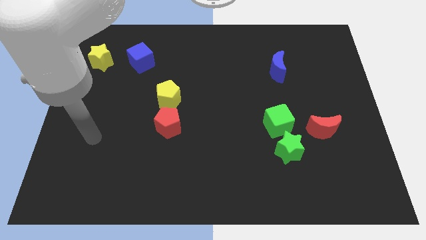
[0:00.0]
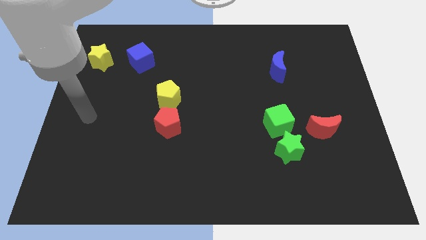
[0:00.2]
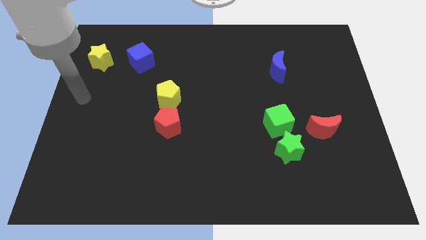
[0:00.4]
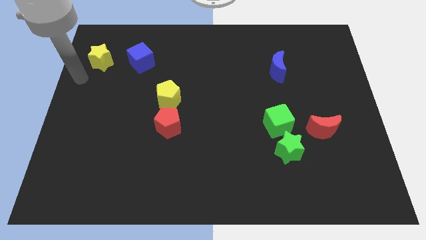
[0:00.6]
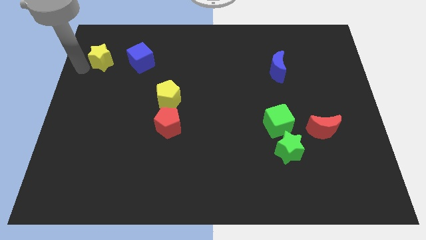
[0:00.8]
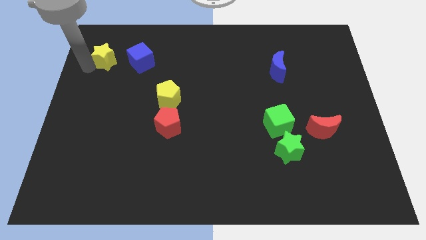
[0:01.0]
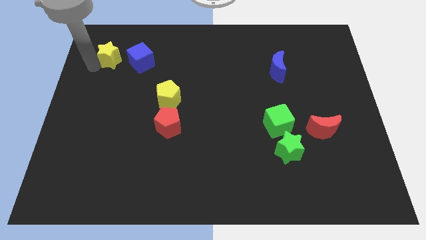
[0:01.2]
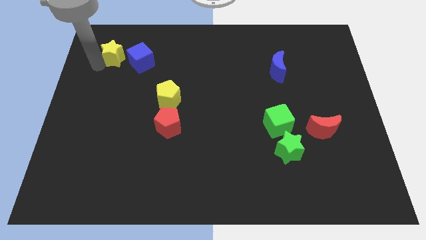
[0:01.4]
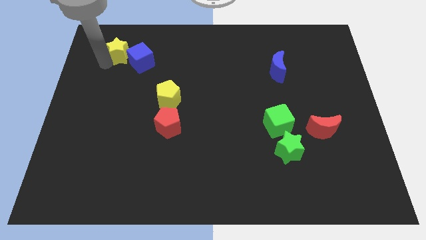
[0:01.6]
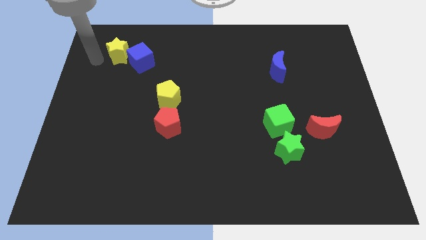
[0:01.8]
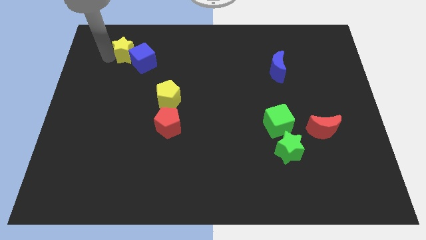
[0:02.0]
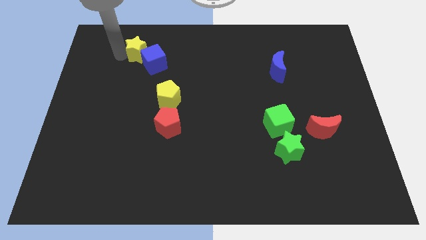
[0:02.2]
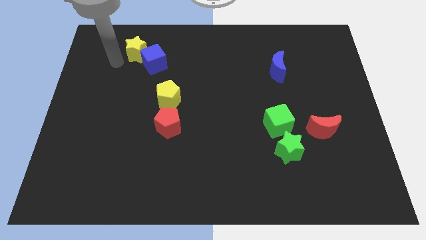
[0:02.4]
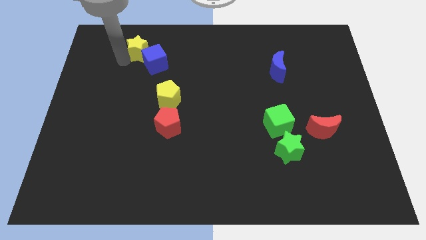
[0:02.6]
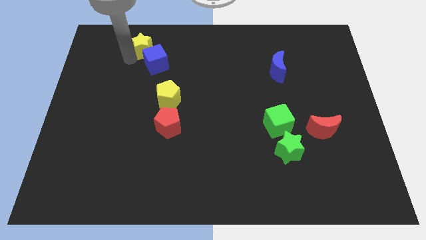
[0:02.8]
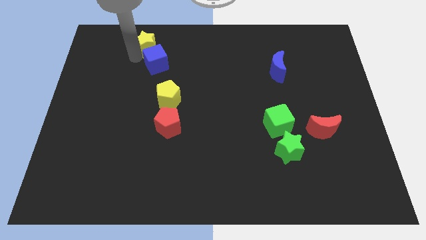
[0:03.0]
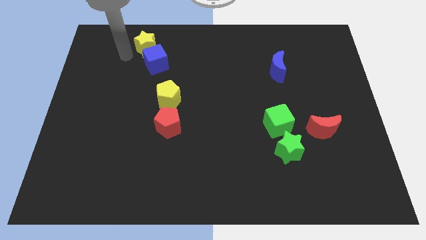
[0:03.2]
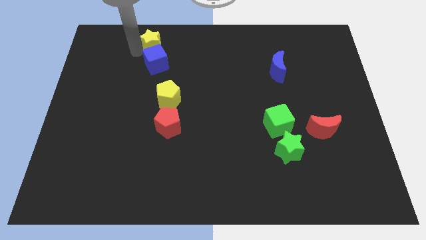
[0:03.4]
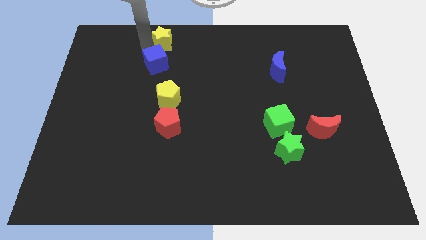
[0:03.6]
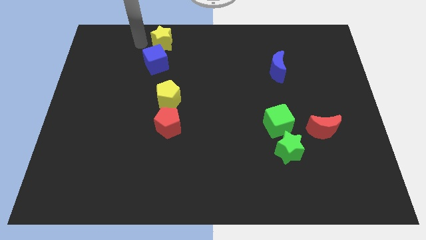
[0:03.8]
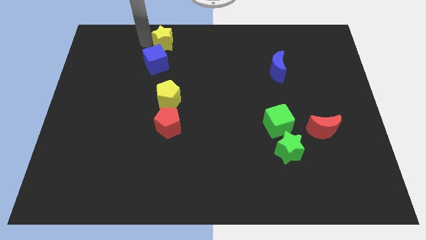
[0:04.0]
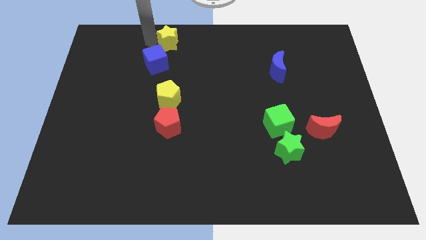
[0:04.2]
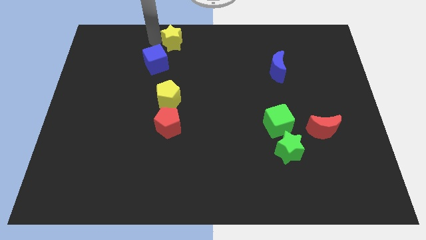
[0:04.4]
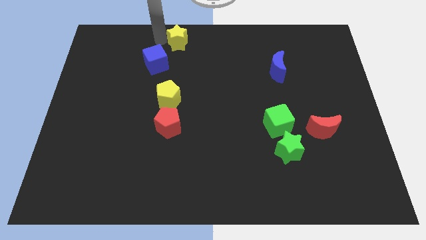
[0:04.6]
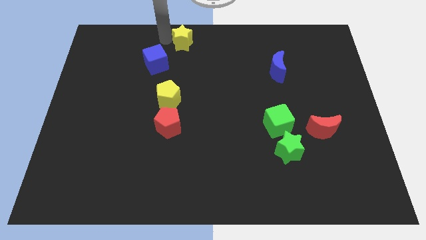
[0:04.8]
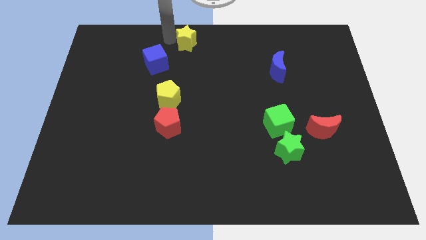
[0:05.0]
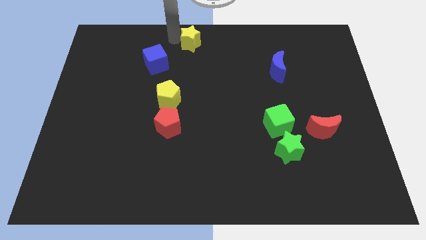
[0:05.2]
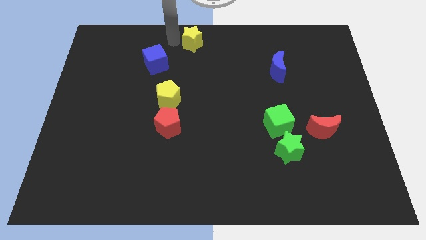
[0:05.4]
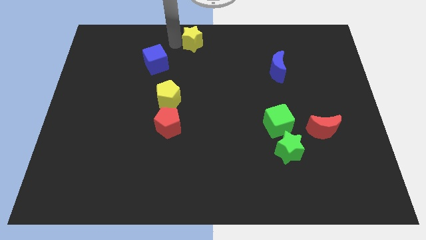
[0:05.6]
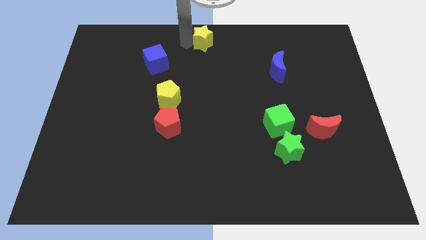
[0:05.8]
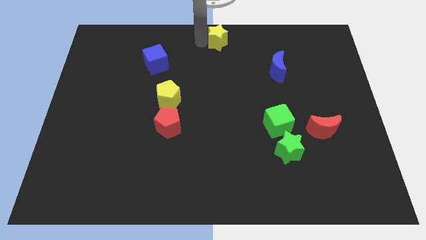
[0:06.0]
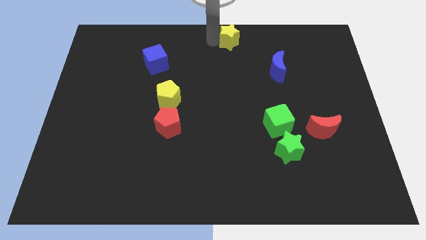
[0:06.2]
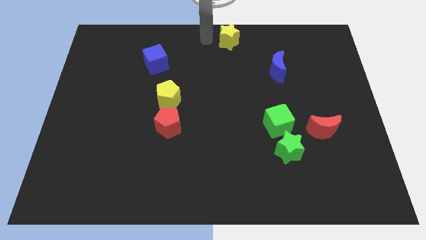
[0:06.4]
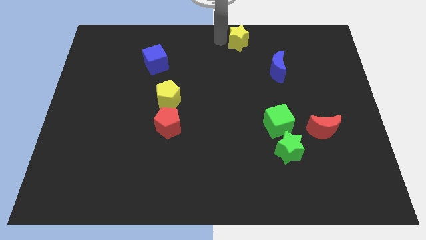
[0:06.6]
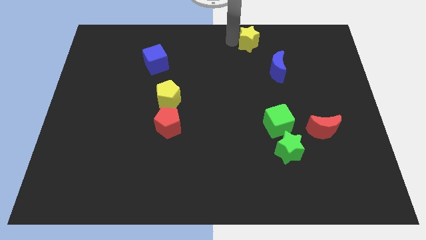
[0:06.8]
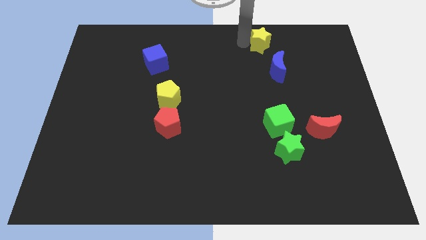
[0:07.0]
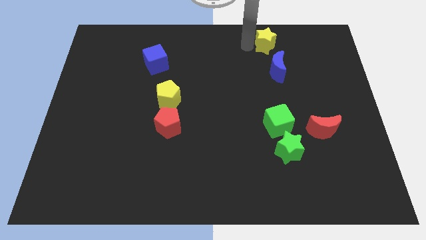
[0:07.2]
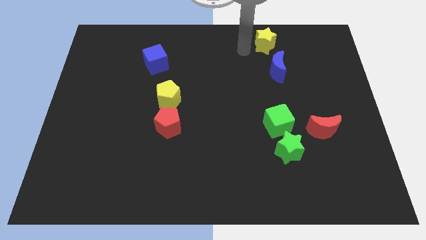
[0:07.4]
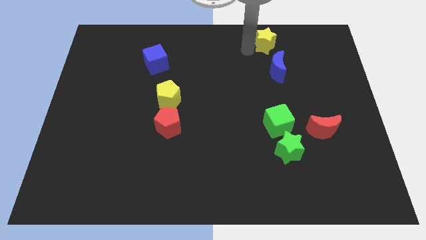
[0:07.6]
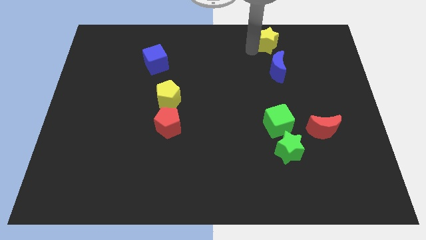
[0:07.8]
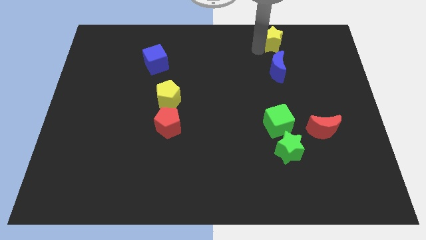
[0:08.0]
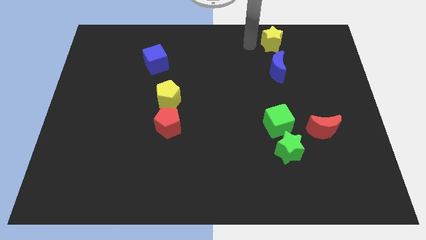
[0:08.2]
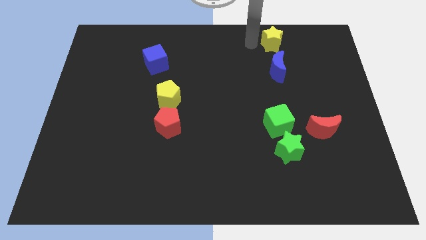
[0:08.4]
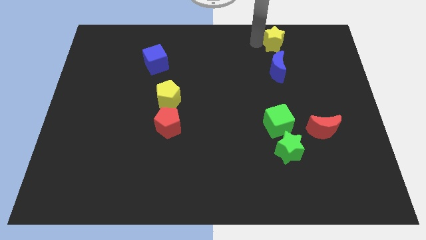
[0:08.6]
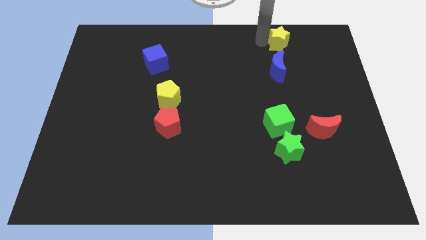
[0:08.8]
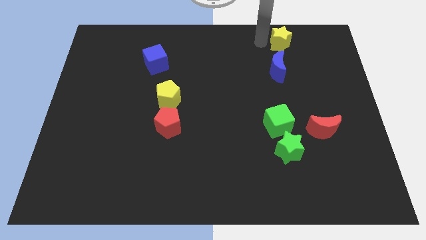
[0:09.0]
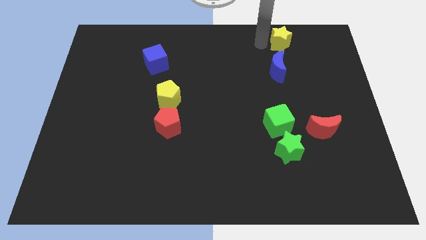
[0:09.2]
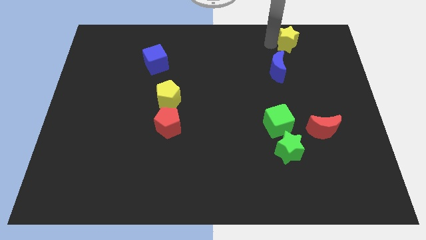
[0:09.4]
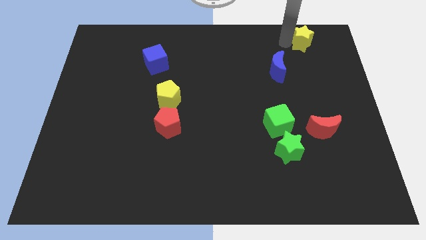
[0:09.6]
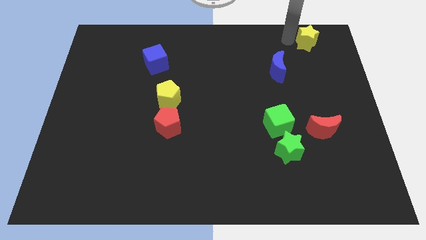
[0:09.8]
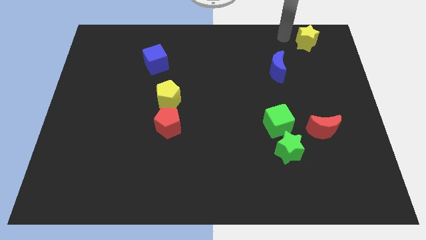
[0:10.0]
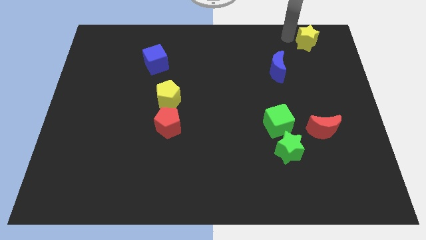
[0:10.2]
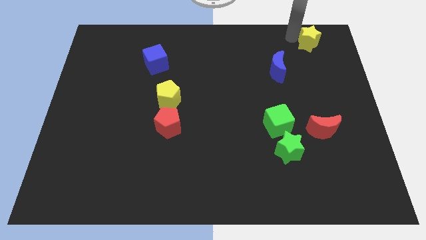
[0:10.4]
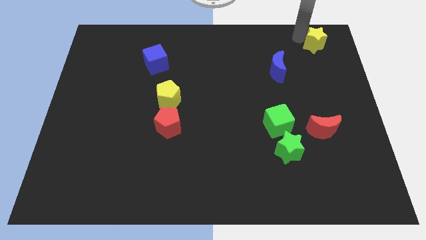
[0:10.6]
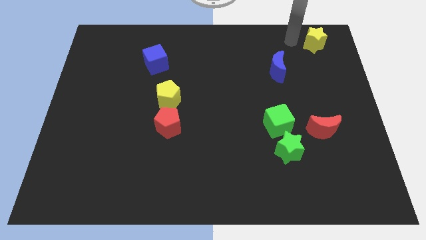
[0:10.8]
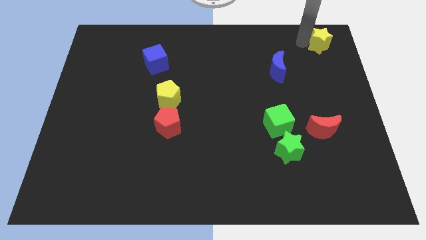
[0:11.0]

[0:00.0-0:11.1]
push the yellow star to the upper right corner

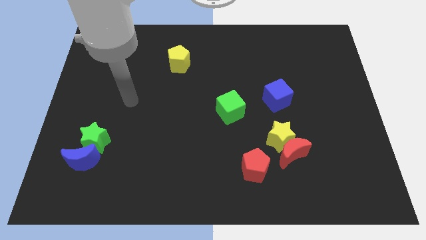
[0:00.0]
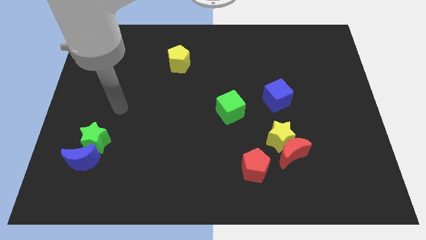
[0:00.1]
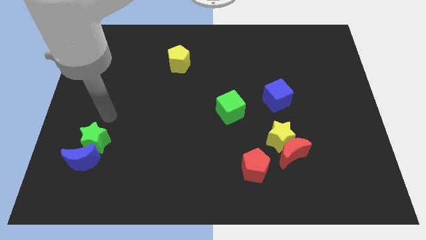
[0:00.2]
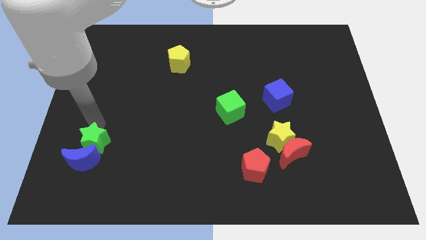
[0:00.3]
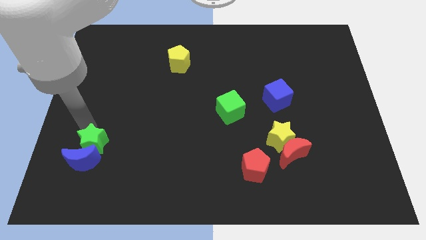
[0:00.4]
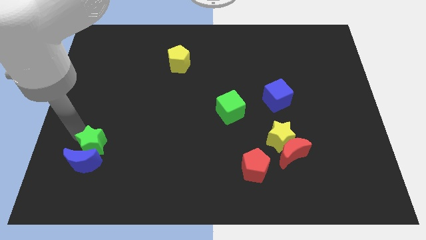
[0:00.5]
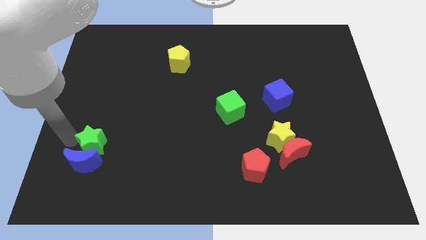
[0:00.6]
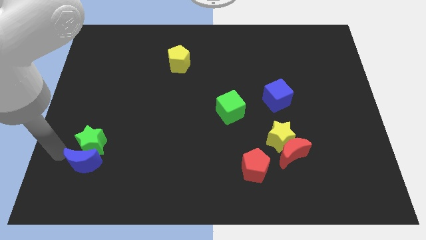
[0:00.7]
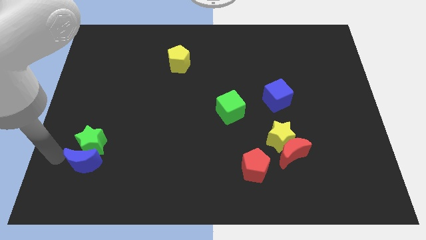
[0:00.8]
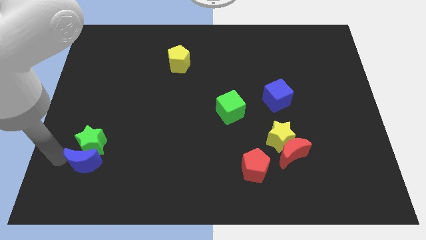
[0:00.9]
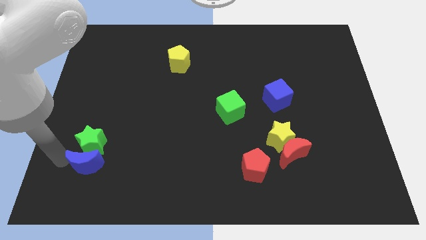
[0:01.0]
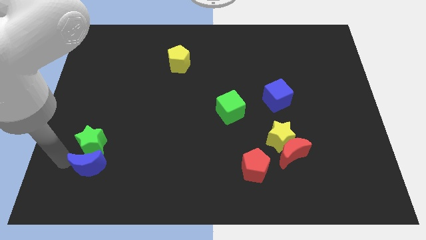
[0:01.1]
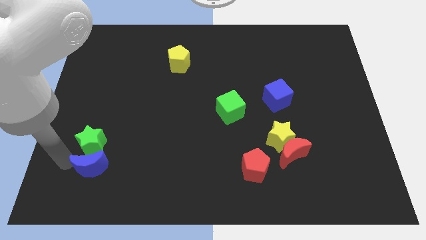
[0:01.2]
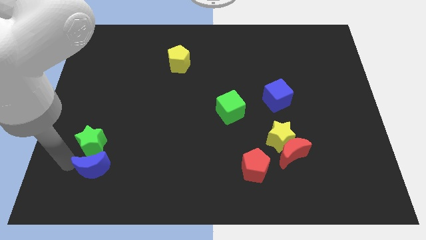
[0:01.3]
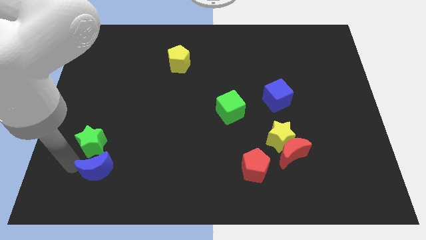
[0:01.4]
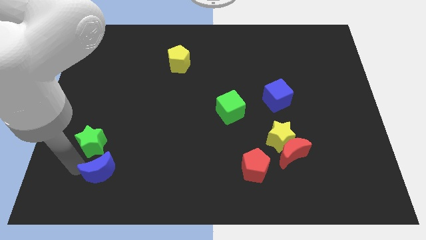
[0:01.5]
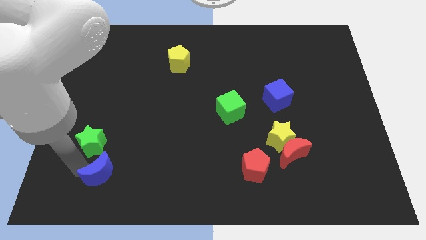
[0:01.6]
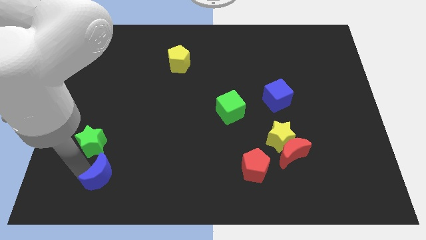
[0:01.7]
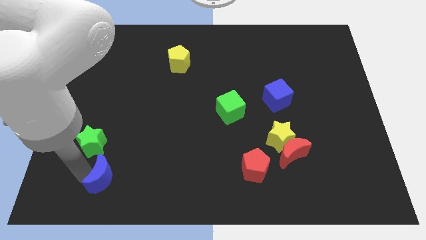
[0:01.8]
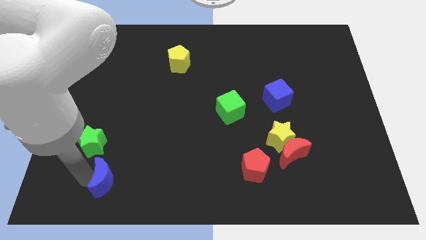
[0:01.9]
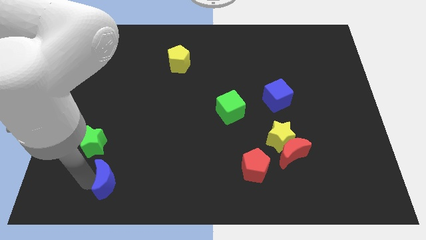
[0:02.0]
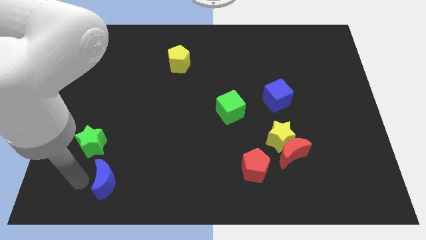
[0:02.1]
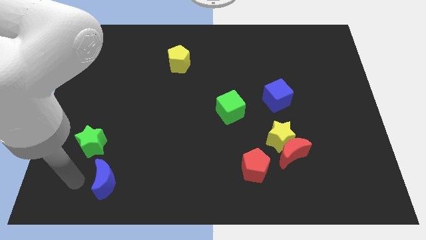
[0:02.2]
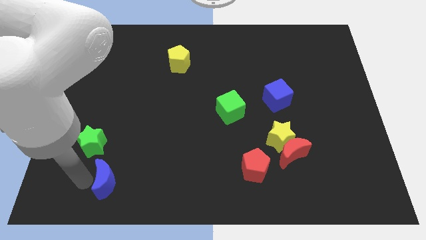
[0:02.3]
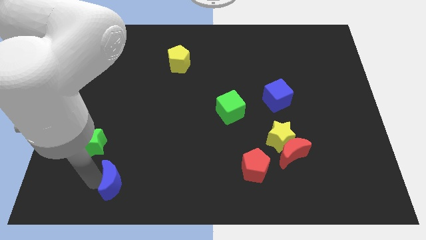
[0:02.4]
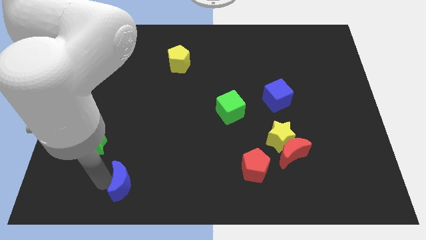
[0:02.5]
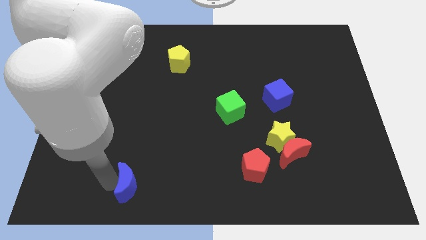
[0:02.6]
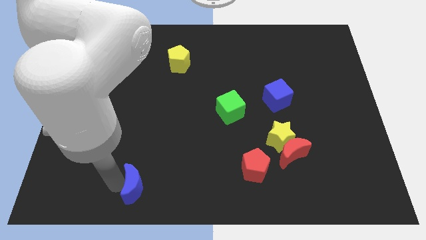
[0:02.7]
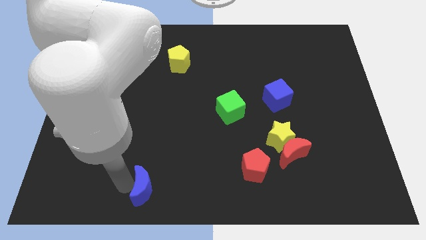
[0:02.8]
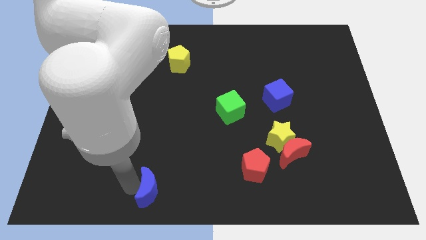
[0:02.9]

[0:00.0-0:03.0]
push the blue moon to the bottom side
